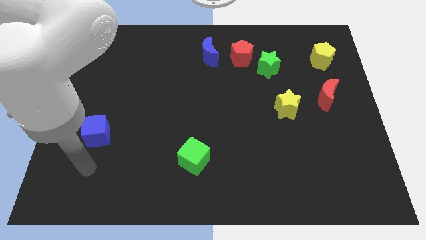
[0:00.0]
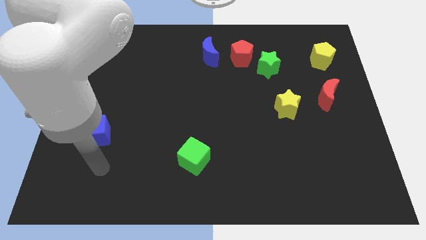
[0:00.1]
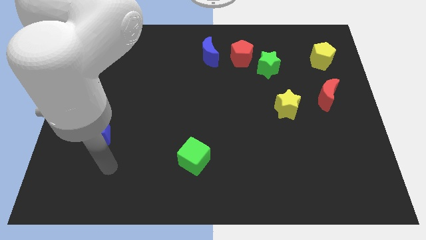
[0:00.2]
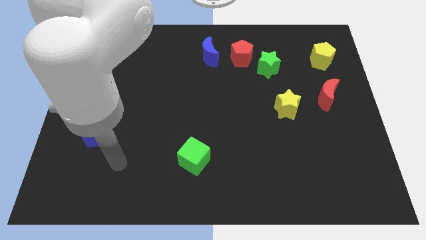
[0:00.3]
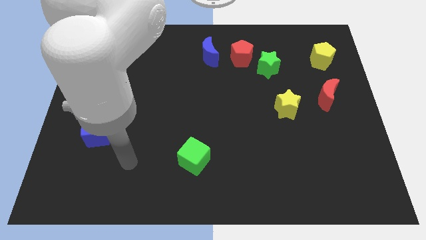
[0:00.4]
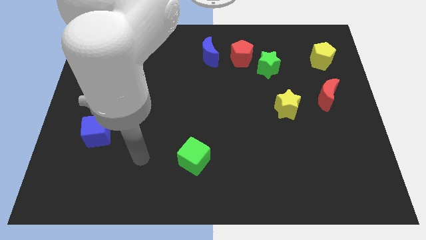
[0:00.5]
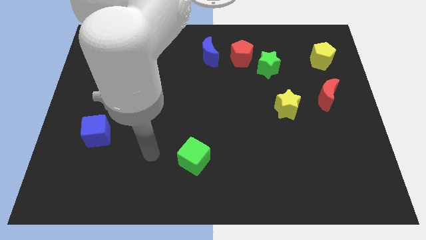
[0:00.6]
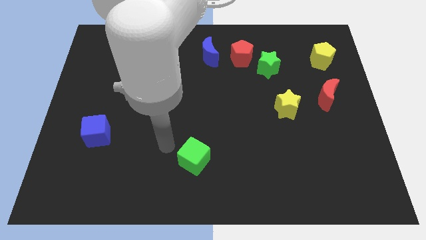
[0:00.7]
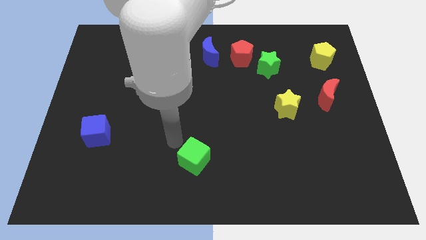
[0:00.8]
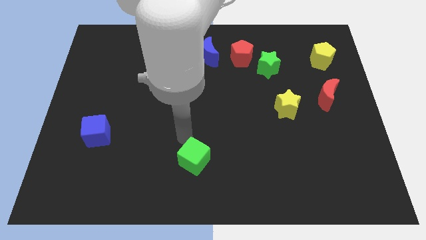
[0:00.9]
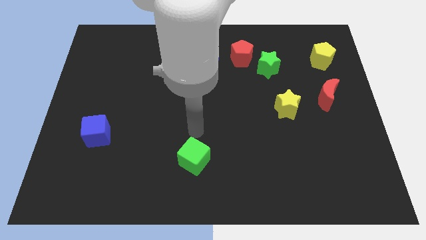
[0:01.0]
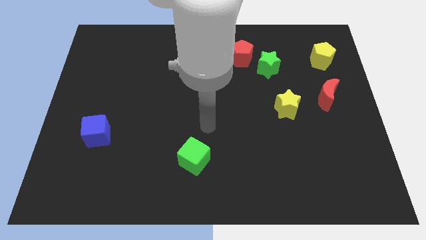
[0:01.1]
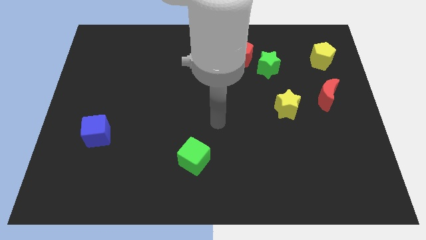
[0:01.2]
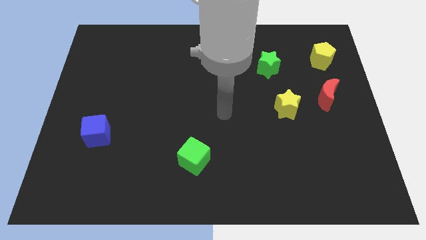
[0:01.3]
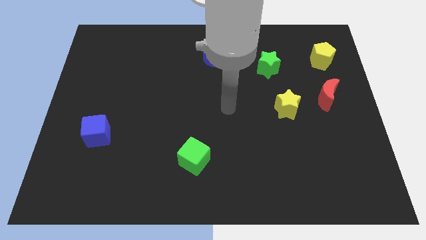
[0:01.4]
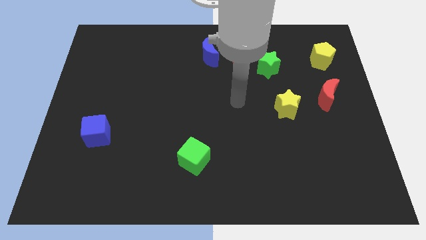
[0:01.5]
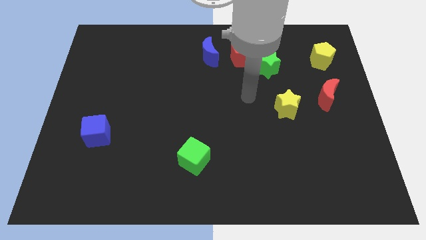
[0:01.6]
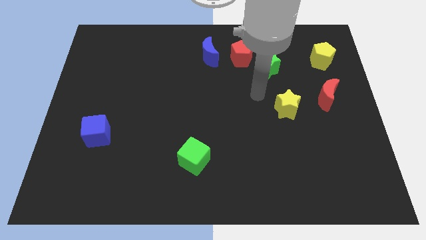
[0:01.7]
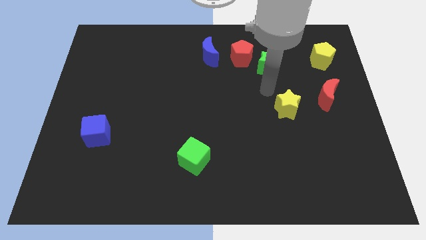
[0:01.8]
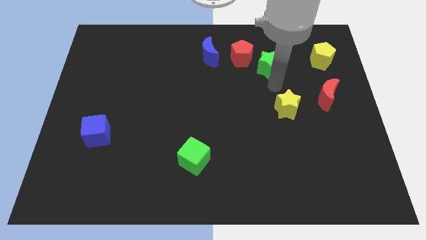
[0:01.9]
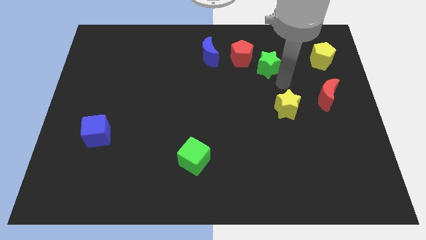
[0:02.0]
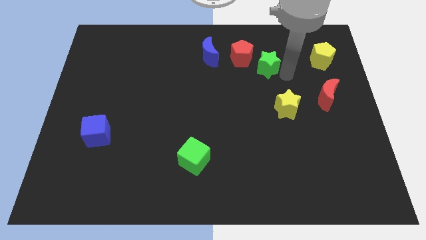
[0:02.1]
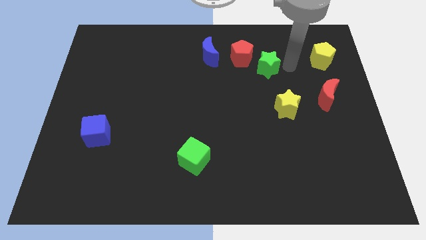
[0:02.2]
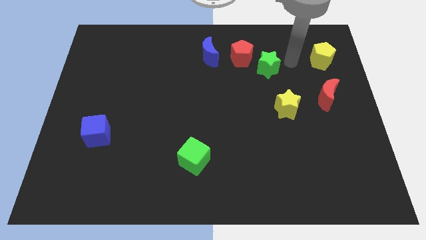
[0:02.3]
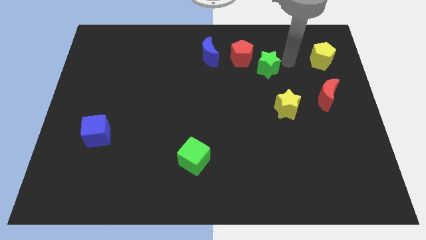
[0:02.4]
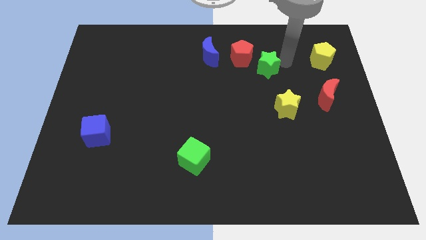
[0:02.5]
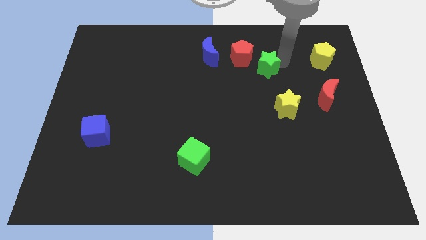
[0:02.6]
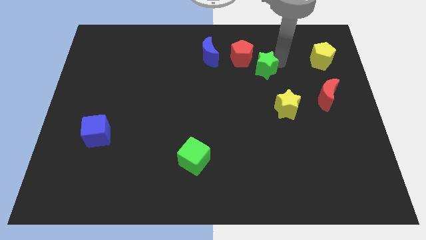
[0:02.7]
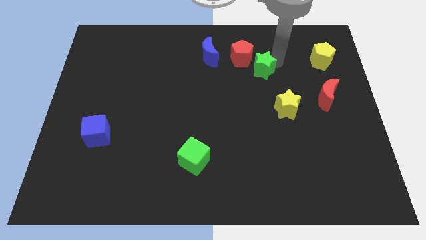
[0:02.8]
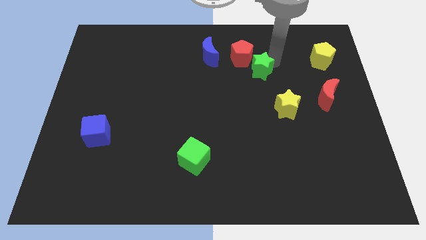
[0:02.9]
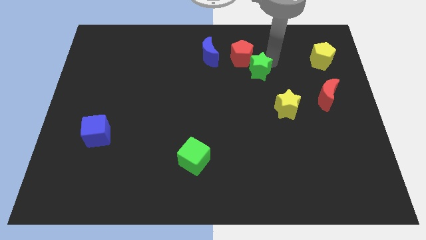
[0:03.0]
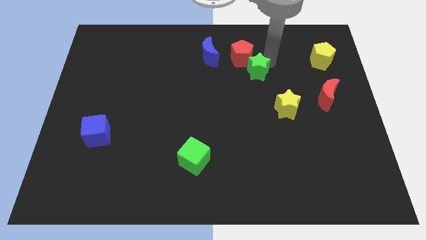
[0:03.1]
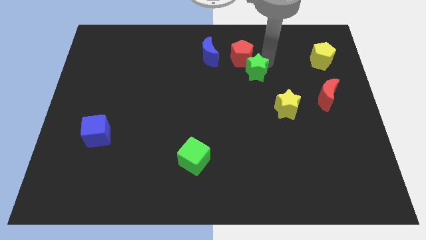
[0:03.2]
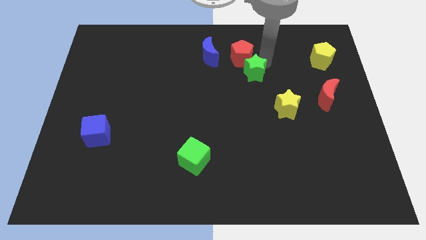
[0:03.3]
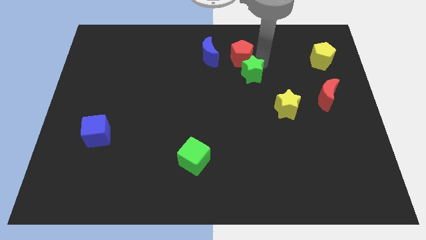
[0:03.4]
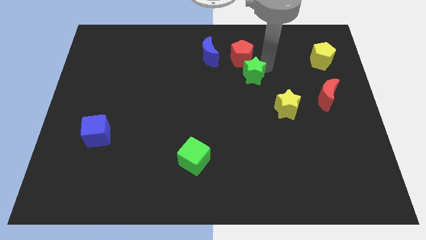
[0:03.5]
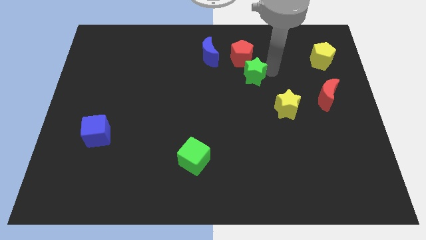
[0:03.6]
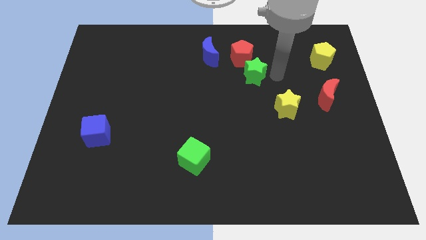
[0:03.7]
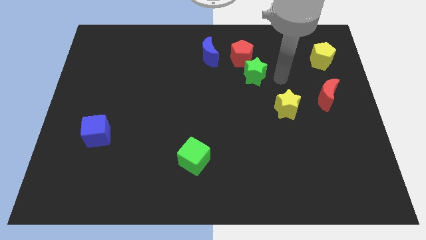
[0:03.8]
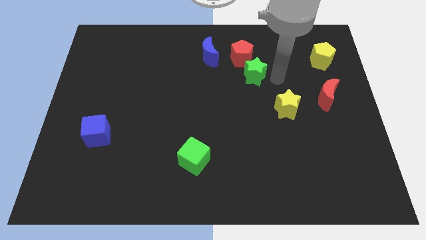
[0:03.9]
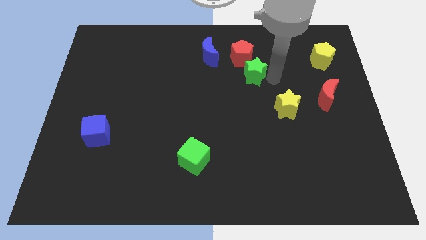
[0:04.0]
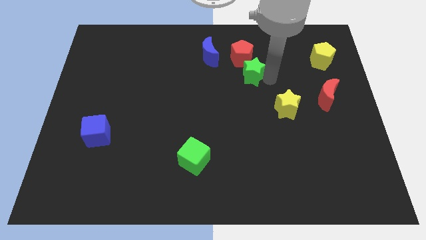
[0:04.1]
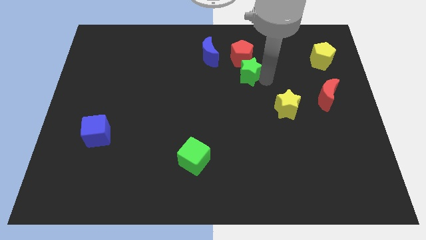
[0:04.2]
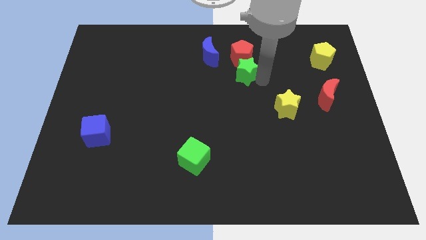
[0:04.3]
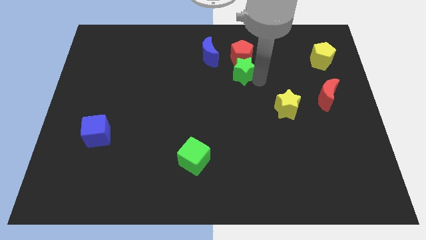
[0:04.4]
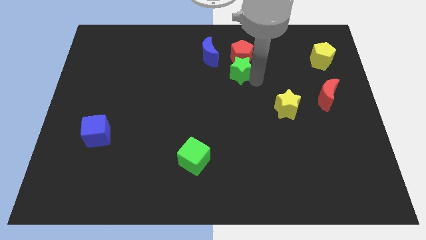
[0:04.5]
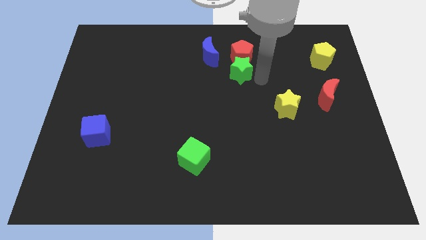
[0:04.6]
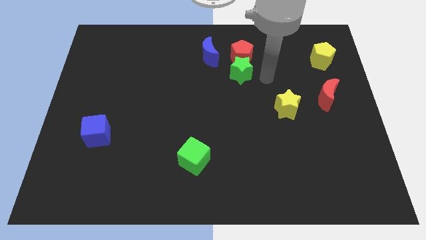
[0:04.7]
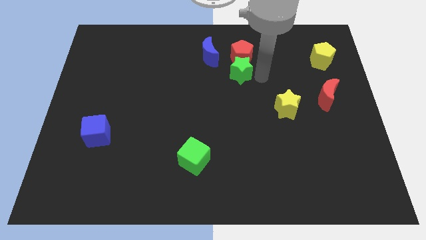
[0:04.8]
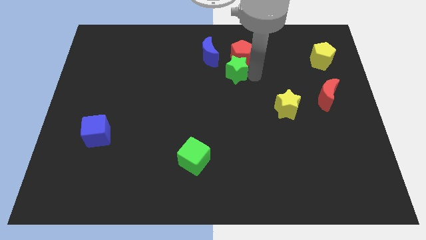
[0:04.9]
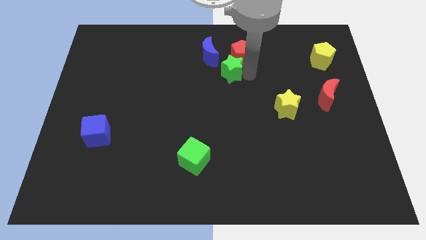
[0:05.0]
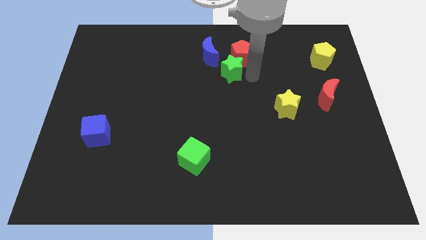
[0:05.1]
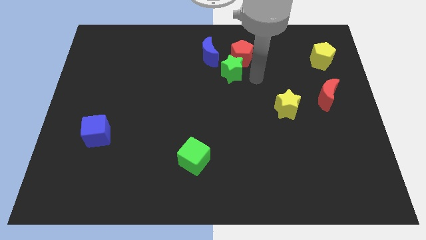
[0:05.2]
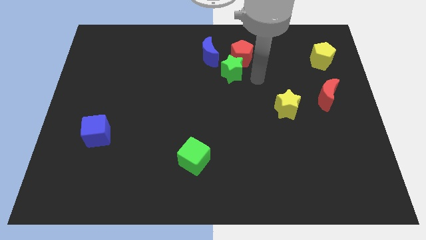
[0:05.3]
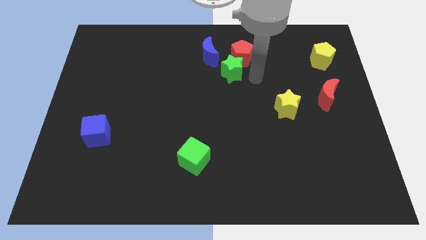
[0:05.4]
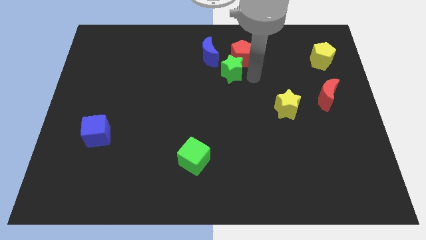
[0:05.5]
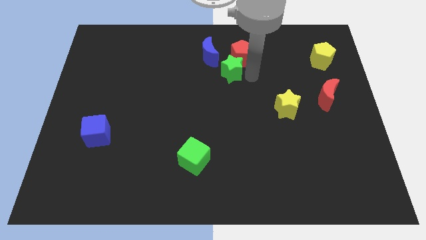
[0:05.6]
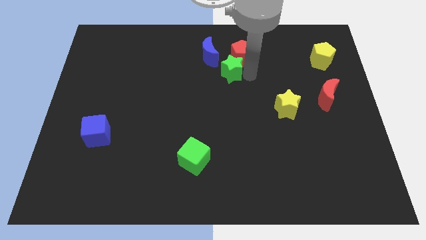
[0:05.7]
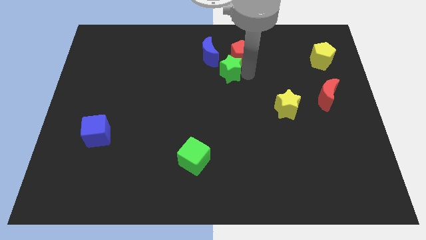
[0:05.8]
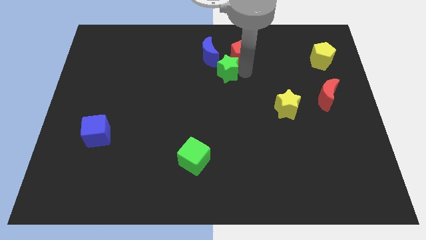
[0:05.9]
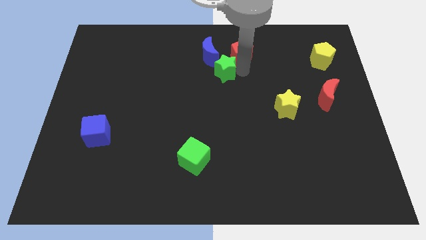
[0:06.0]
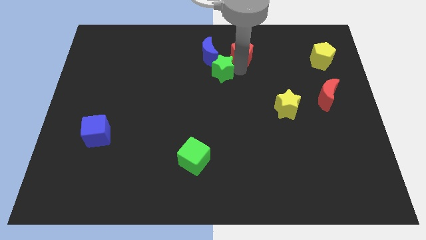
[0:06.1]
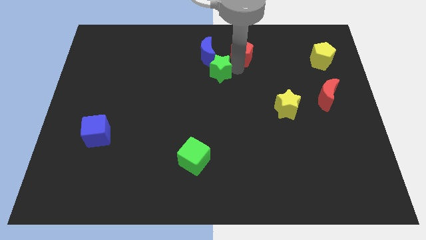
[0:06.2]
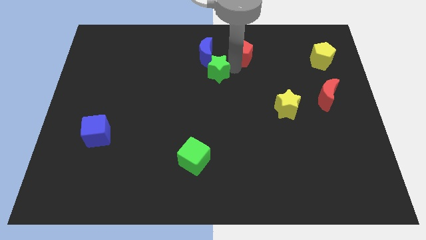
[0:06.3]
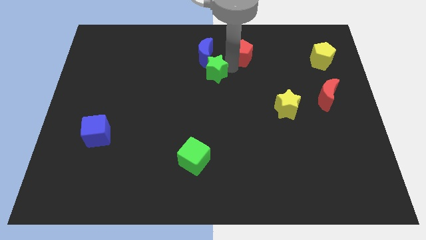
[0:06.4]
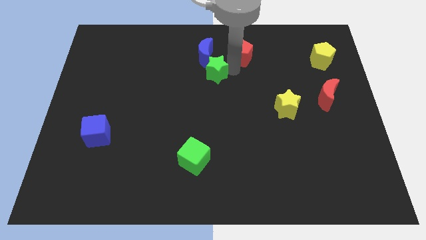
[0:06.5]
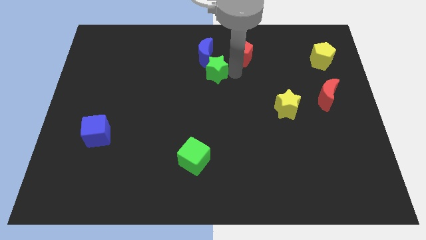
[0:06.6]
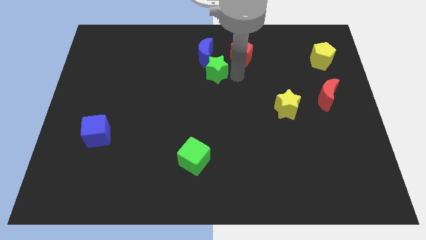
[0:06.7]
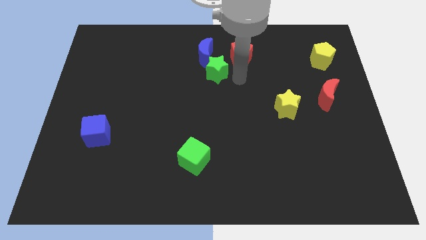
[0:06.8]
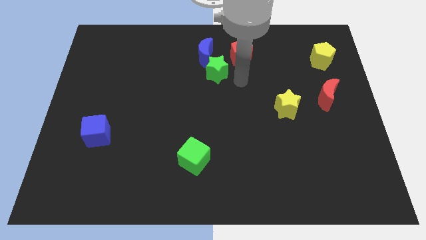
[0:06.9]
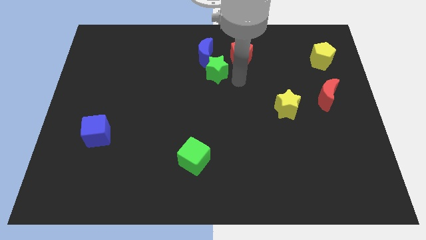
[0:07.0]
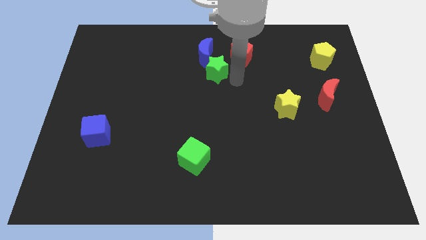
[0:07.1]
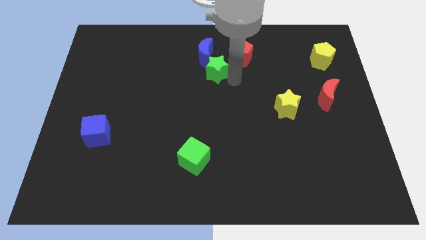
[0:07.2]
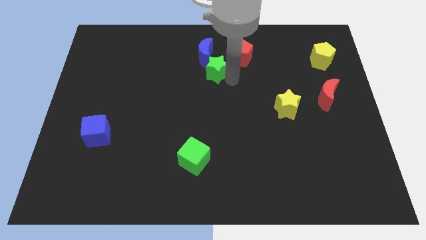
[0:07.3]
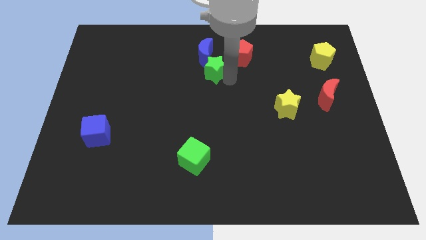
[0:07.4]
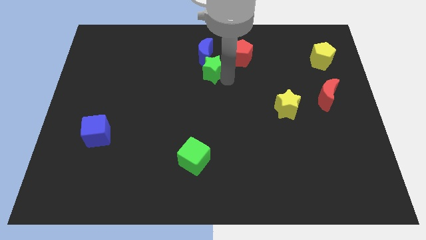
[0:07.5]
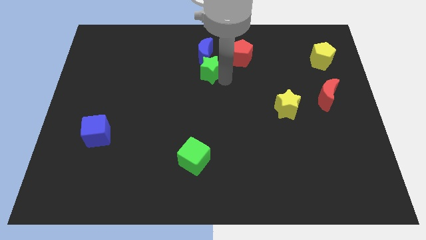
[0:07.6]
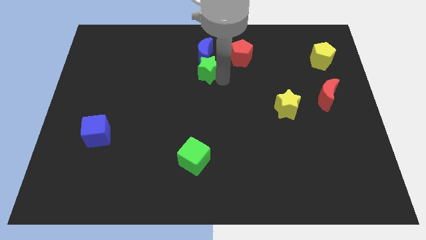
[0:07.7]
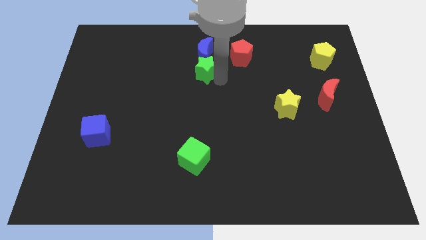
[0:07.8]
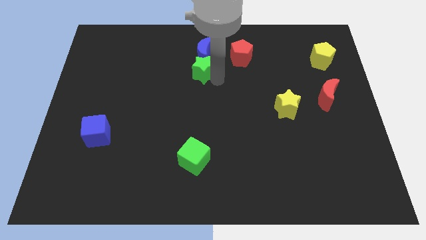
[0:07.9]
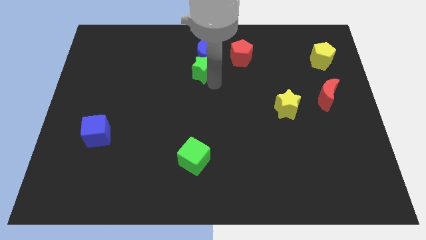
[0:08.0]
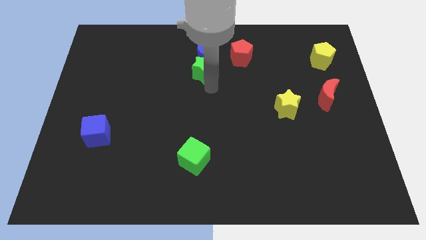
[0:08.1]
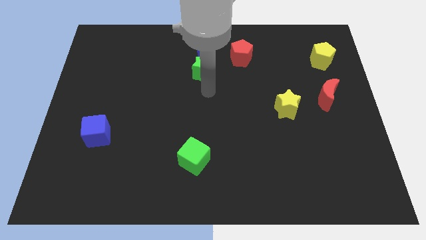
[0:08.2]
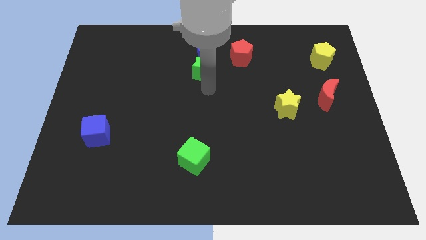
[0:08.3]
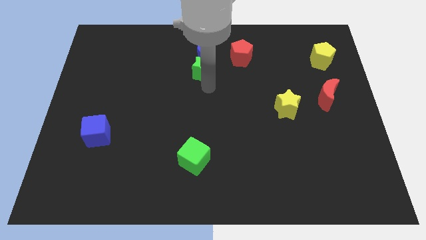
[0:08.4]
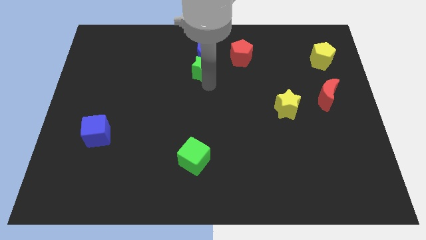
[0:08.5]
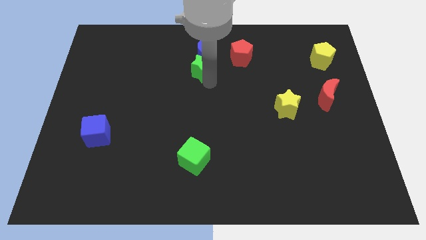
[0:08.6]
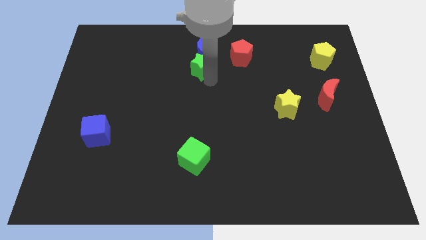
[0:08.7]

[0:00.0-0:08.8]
move the green star left of the red pentagon
